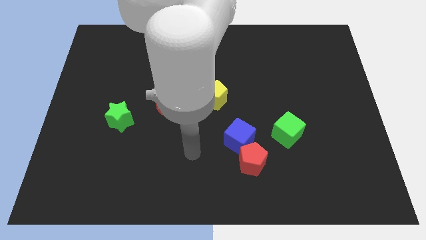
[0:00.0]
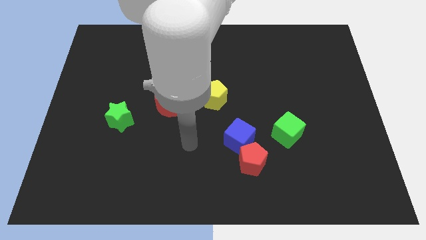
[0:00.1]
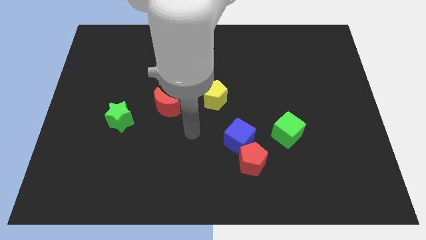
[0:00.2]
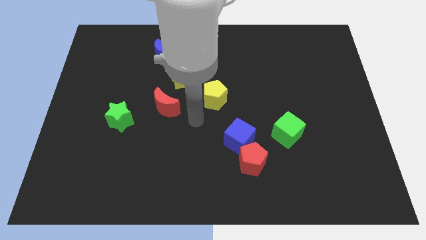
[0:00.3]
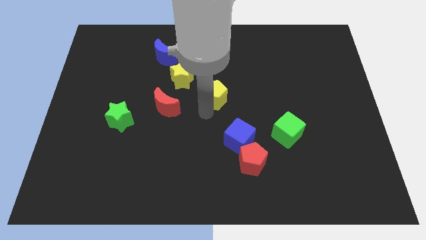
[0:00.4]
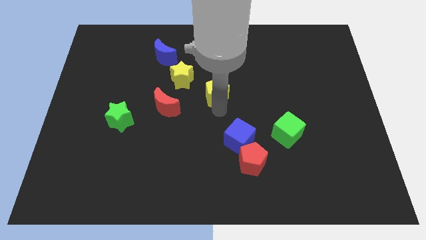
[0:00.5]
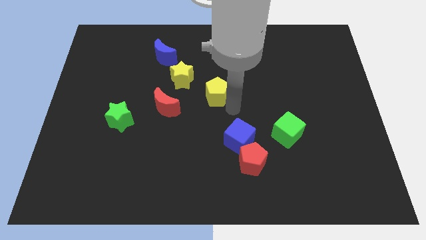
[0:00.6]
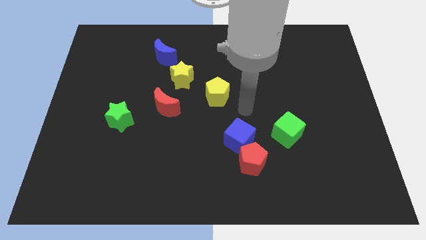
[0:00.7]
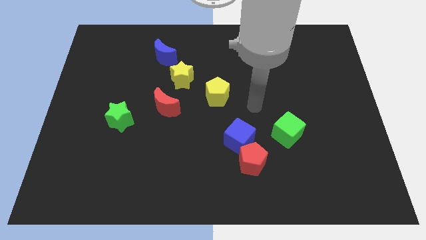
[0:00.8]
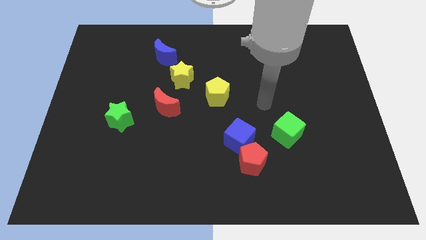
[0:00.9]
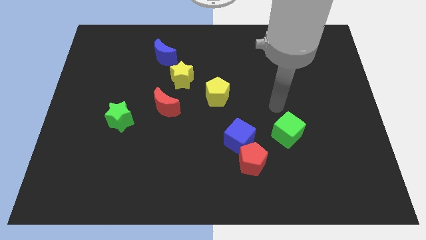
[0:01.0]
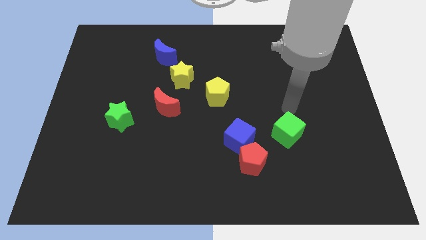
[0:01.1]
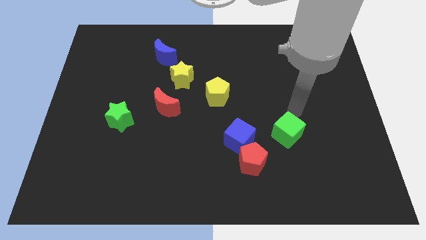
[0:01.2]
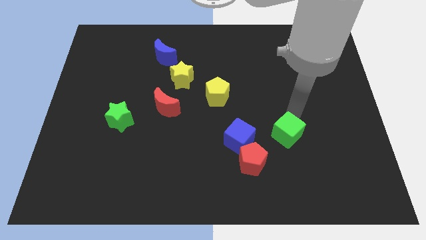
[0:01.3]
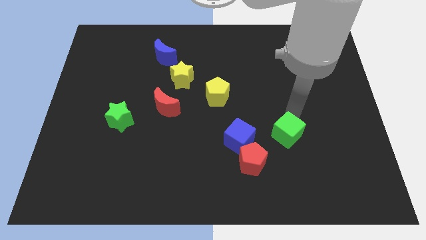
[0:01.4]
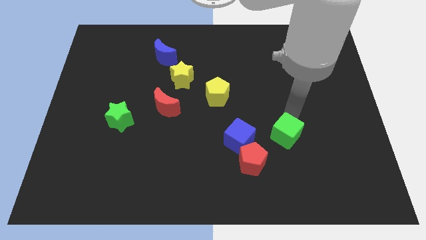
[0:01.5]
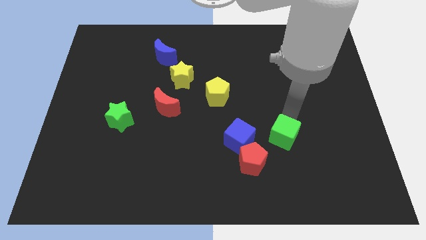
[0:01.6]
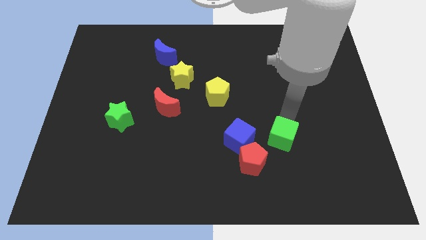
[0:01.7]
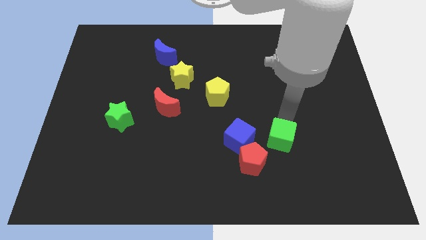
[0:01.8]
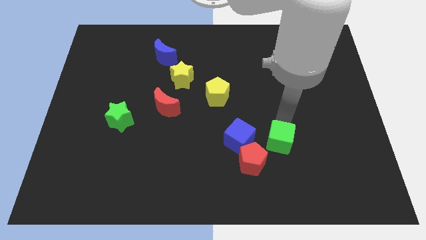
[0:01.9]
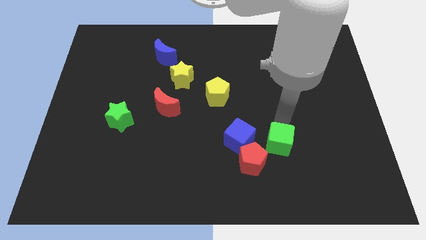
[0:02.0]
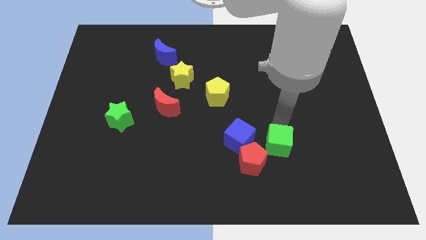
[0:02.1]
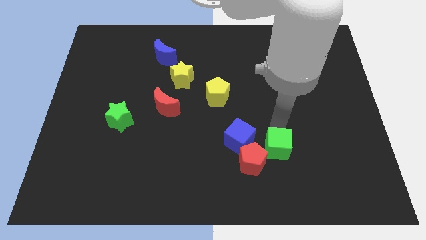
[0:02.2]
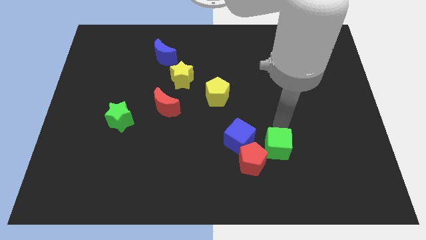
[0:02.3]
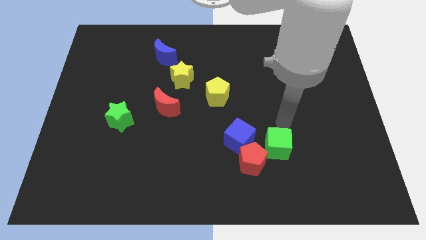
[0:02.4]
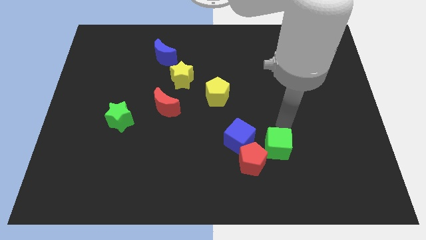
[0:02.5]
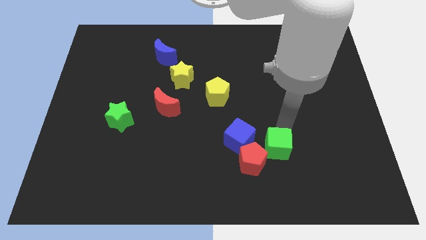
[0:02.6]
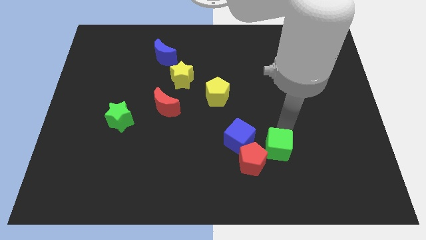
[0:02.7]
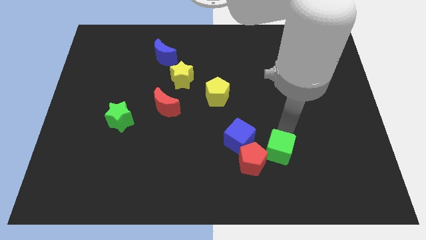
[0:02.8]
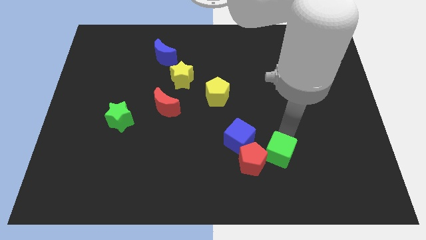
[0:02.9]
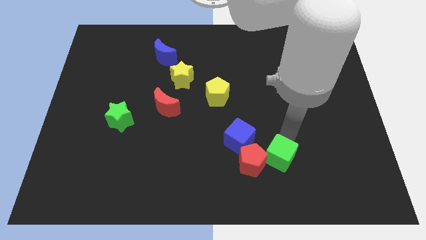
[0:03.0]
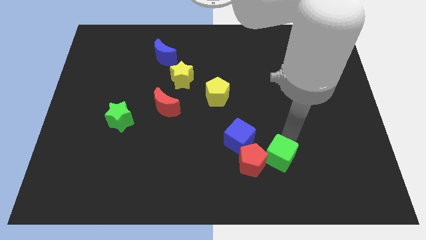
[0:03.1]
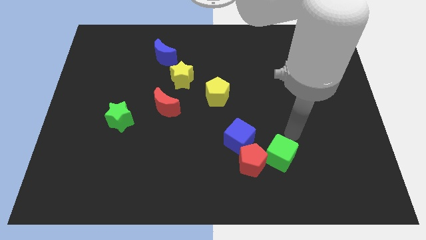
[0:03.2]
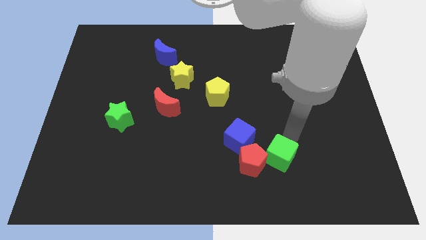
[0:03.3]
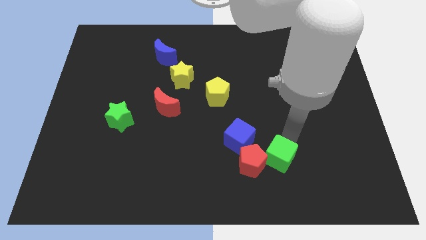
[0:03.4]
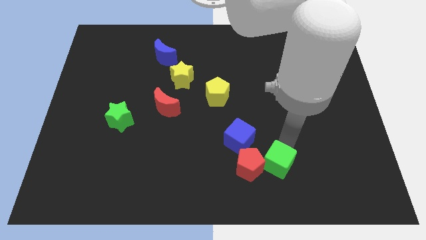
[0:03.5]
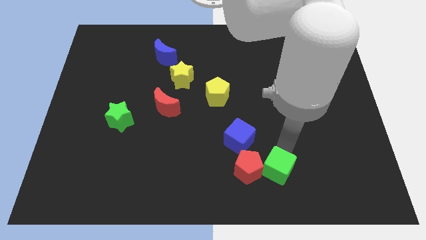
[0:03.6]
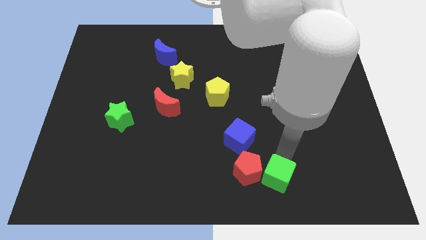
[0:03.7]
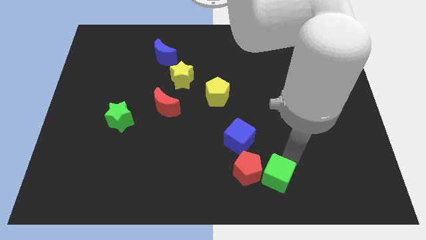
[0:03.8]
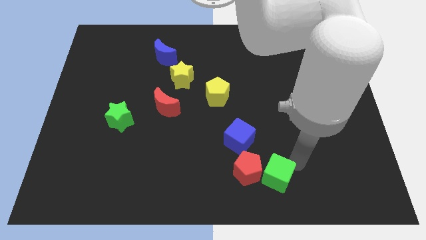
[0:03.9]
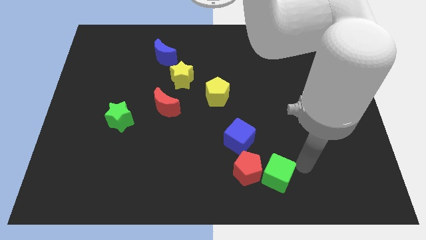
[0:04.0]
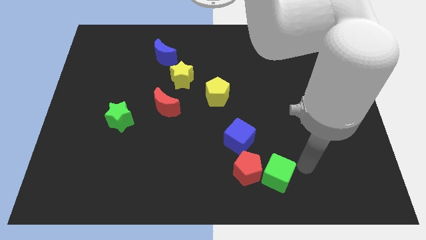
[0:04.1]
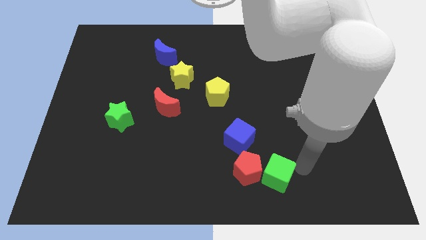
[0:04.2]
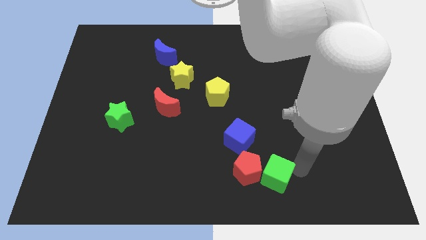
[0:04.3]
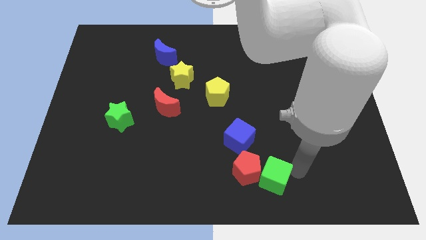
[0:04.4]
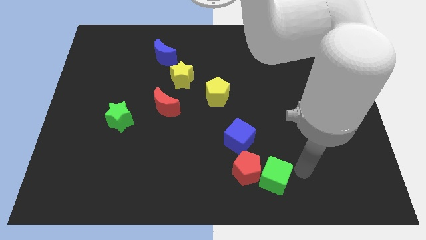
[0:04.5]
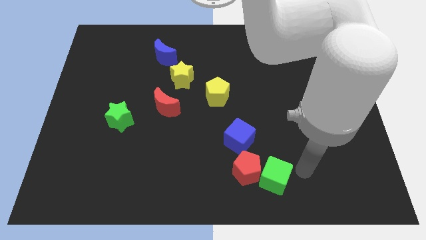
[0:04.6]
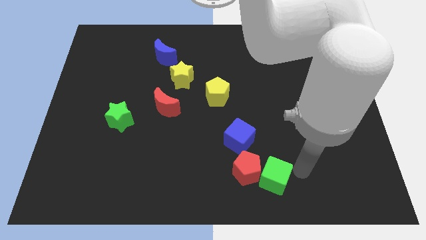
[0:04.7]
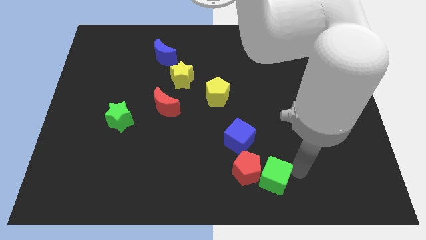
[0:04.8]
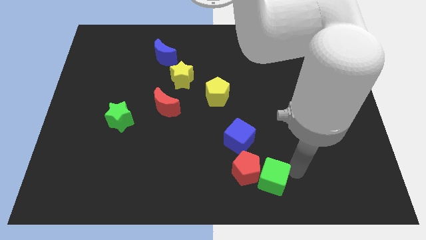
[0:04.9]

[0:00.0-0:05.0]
put the green cube to the bottom side

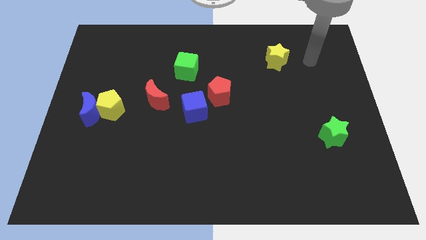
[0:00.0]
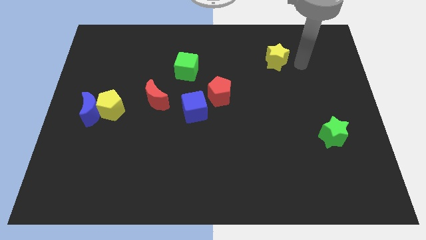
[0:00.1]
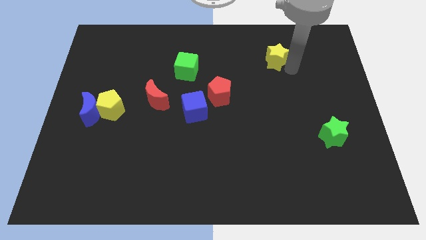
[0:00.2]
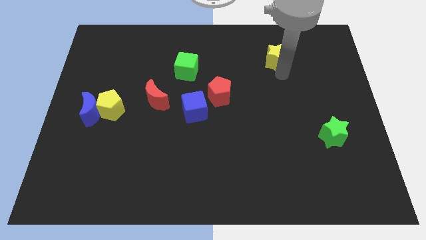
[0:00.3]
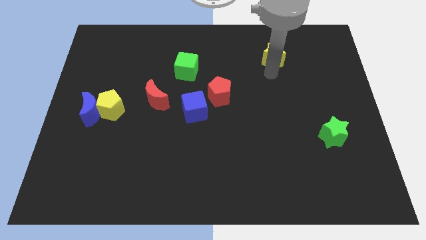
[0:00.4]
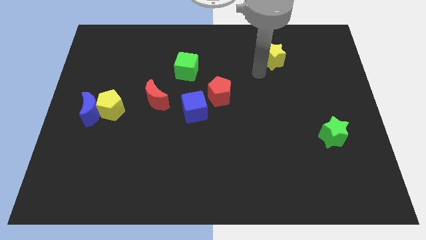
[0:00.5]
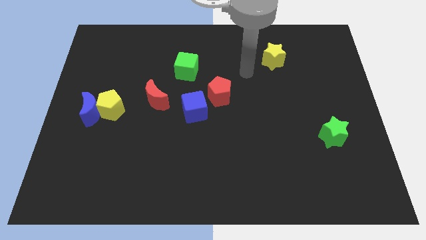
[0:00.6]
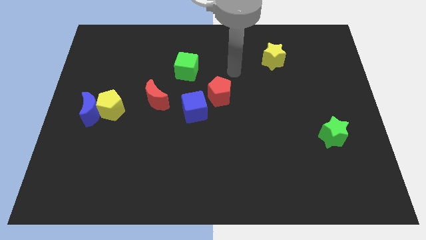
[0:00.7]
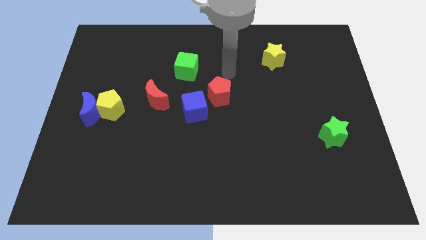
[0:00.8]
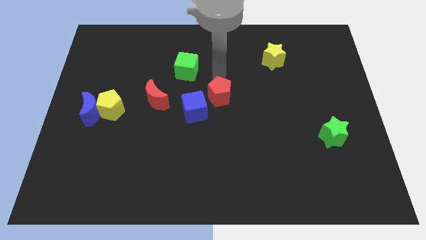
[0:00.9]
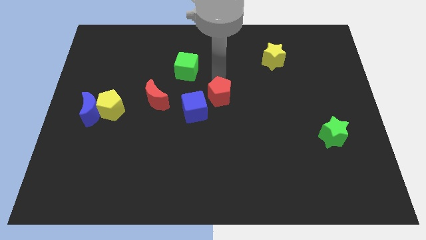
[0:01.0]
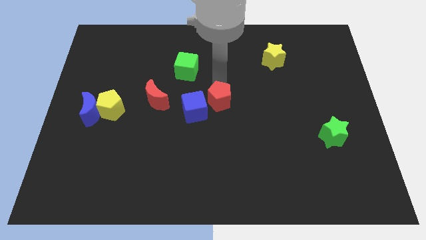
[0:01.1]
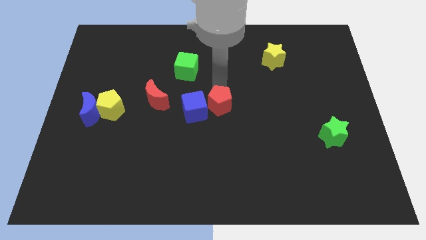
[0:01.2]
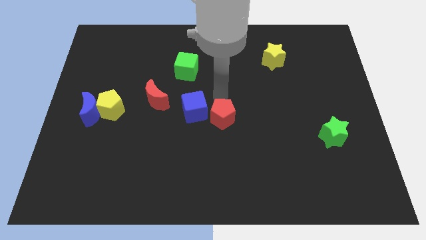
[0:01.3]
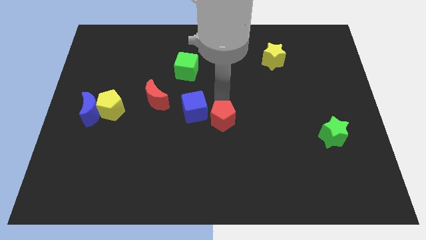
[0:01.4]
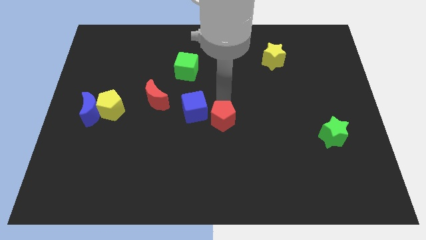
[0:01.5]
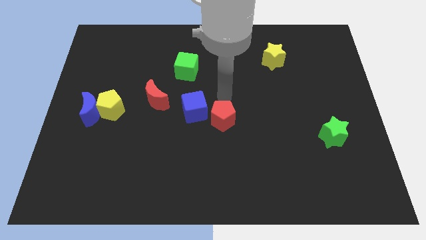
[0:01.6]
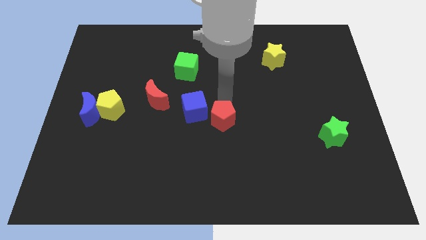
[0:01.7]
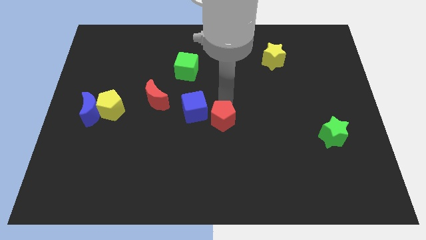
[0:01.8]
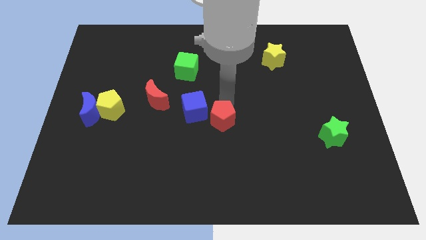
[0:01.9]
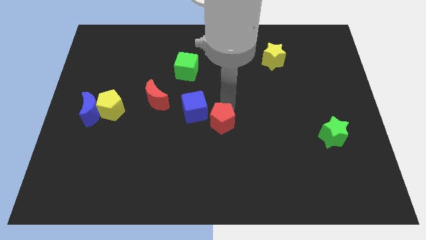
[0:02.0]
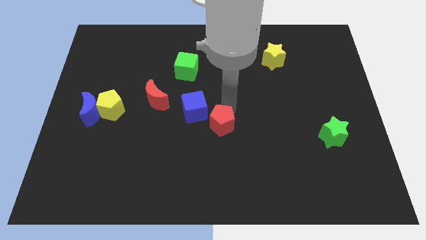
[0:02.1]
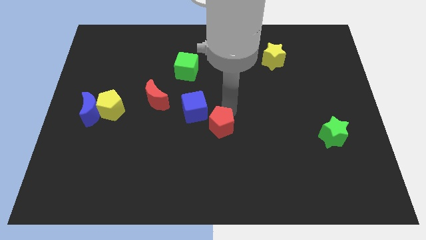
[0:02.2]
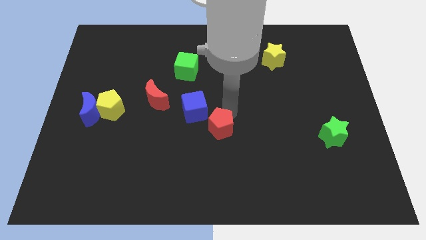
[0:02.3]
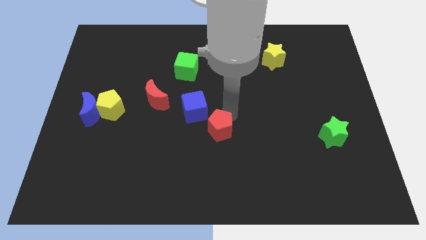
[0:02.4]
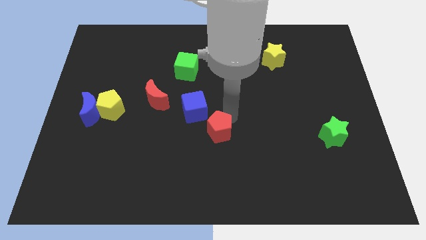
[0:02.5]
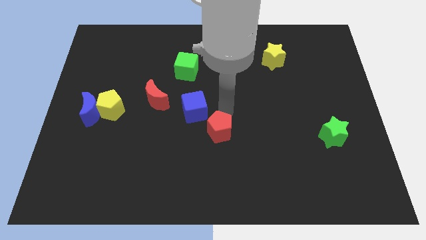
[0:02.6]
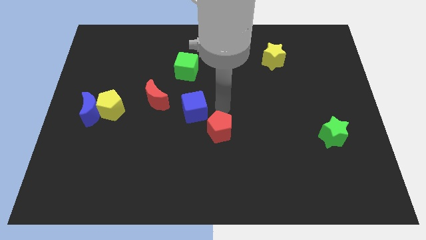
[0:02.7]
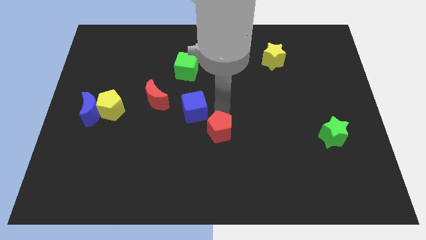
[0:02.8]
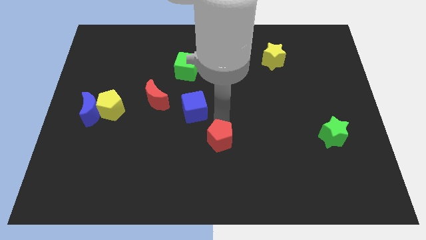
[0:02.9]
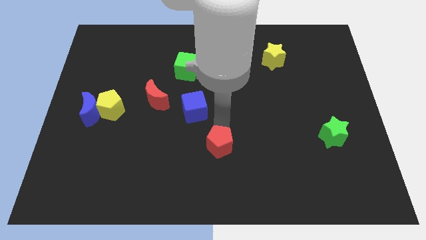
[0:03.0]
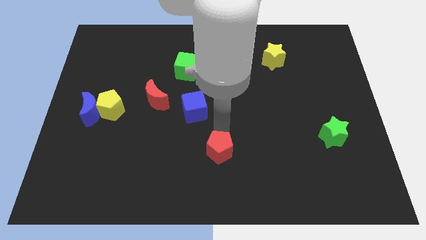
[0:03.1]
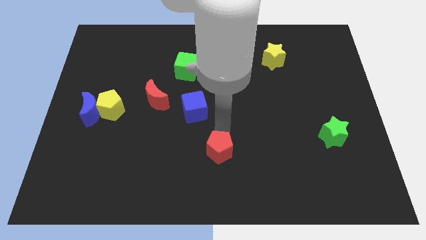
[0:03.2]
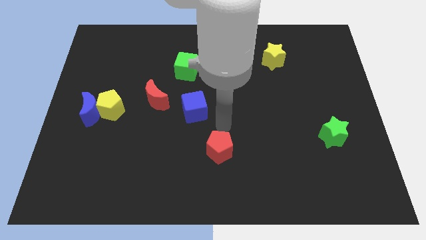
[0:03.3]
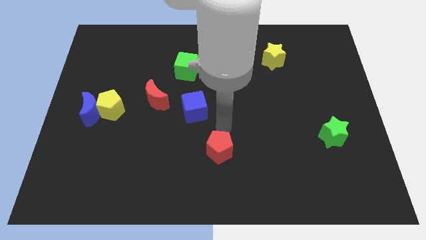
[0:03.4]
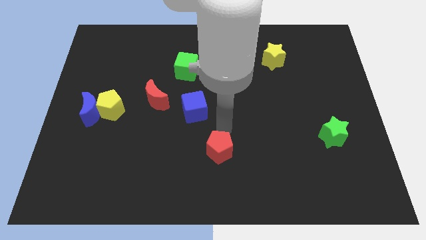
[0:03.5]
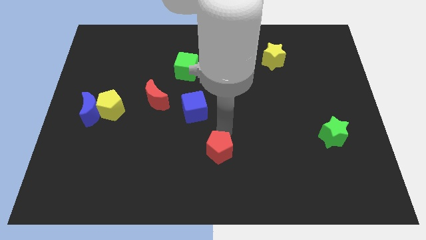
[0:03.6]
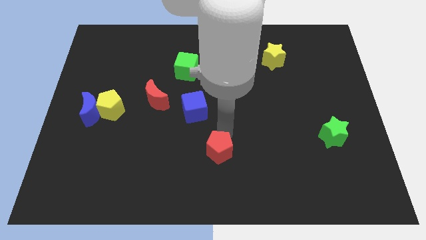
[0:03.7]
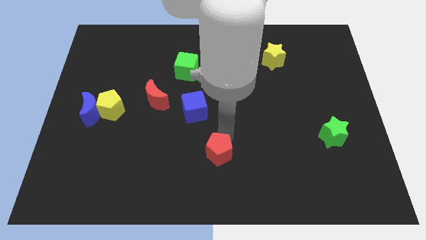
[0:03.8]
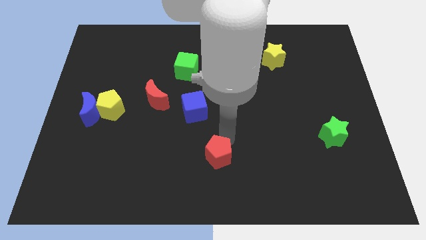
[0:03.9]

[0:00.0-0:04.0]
push the red pentagon to the bottom
